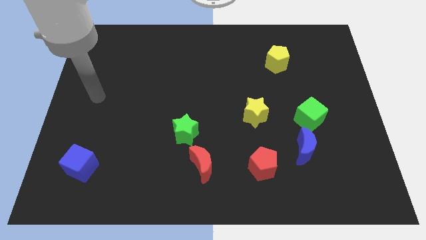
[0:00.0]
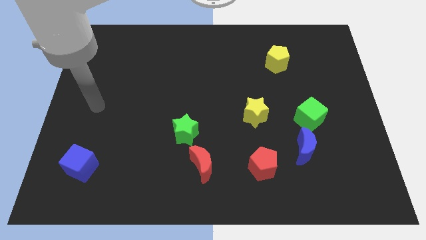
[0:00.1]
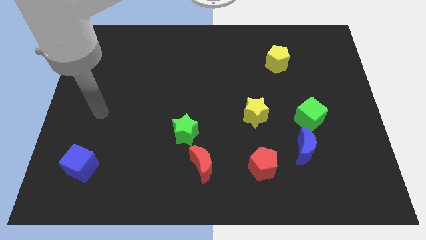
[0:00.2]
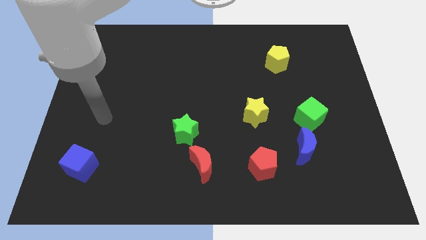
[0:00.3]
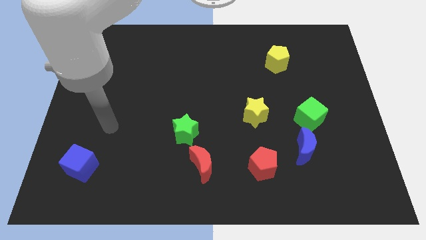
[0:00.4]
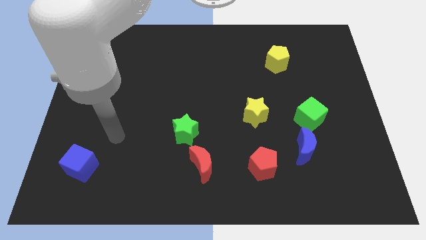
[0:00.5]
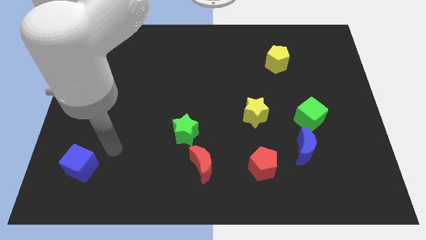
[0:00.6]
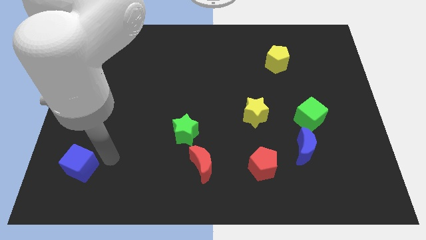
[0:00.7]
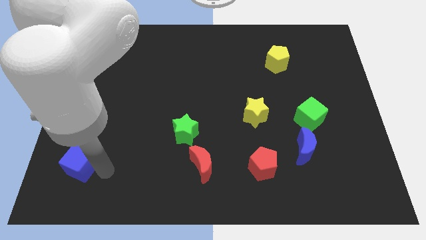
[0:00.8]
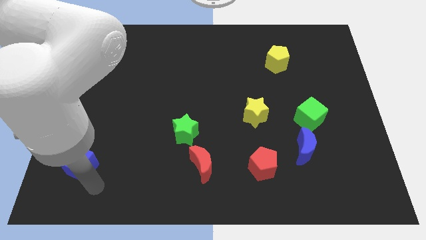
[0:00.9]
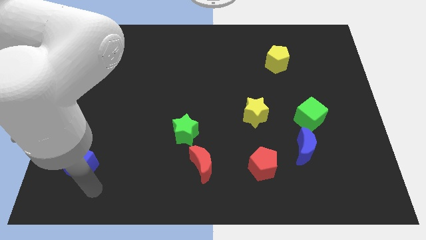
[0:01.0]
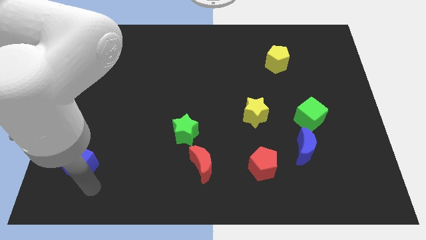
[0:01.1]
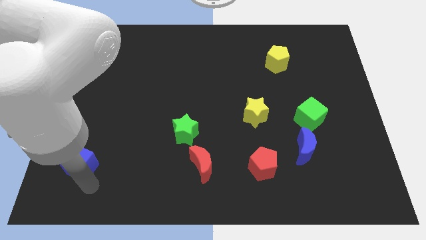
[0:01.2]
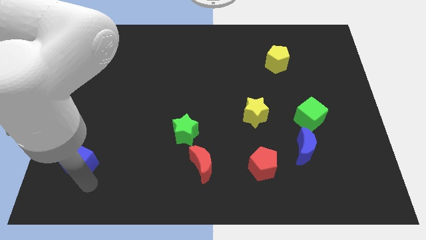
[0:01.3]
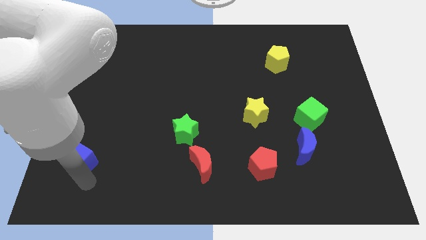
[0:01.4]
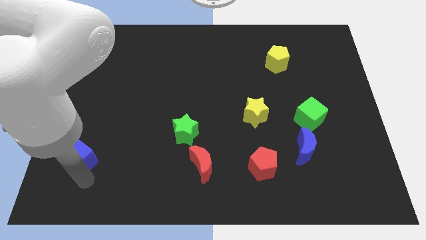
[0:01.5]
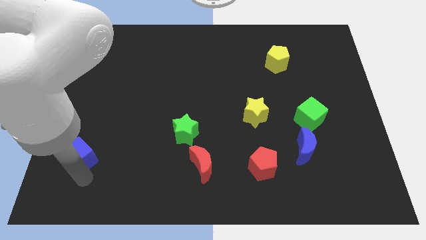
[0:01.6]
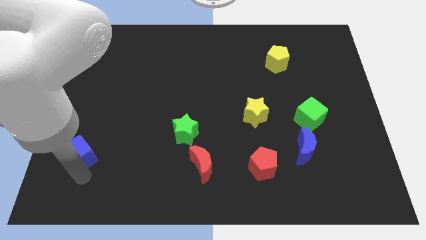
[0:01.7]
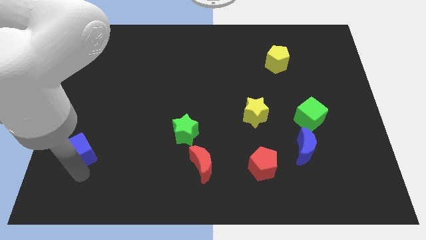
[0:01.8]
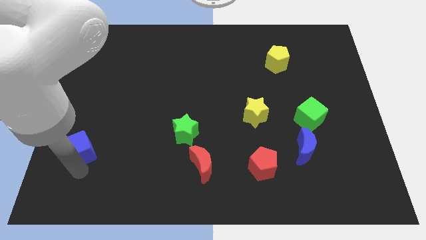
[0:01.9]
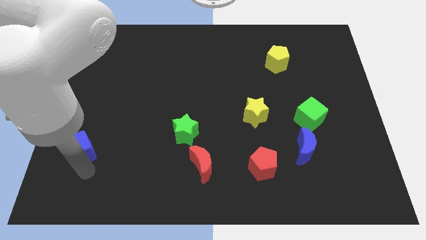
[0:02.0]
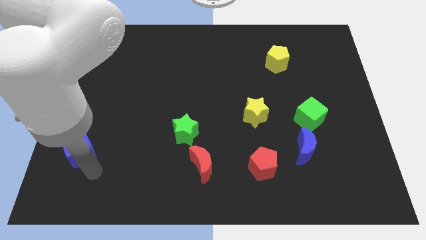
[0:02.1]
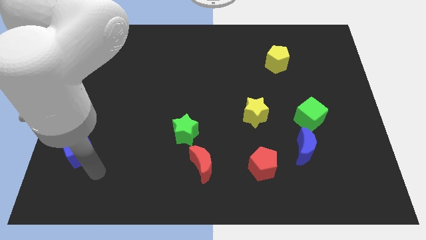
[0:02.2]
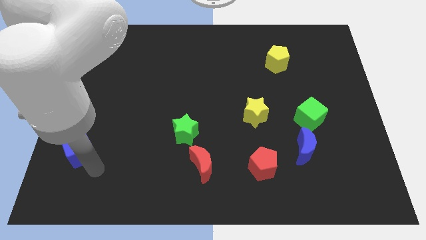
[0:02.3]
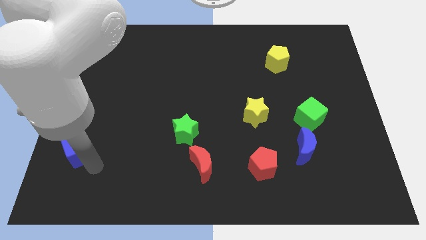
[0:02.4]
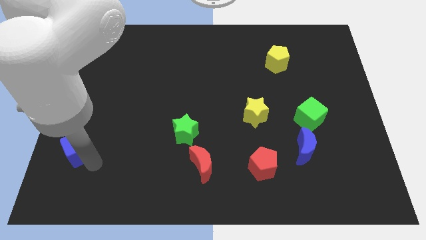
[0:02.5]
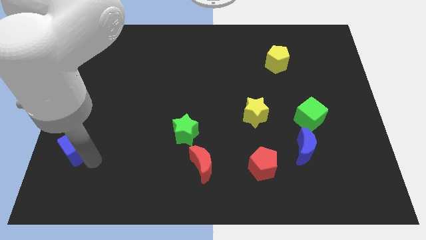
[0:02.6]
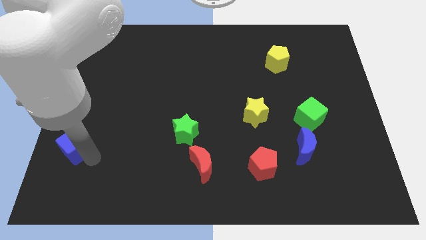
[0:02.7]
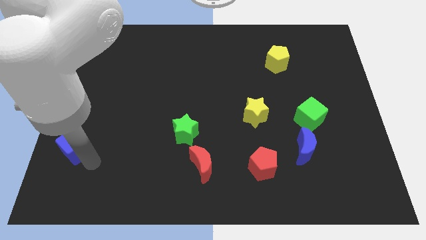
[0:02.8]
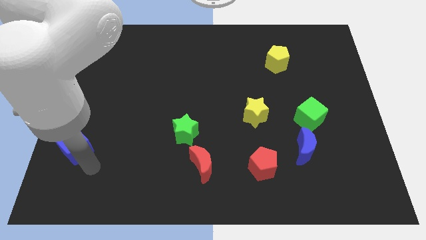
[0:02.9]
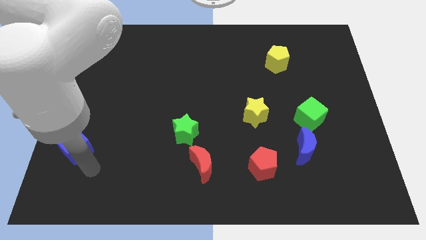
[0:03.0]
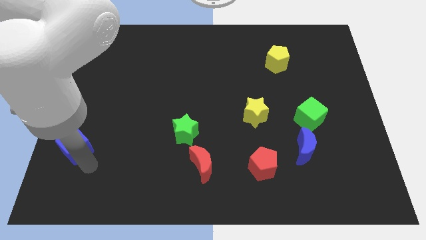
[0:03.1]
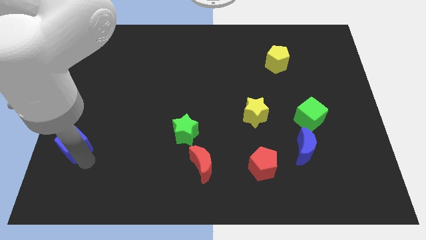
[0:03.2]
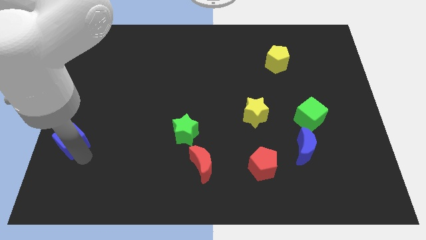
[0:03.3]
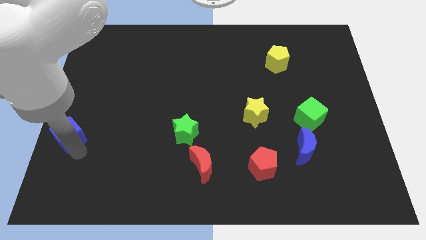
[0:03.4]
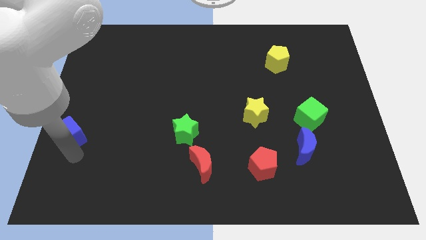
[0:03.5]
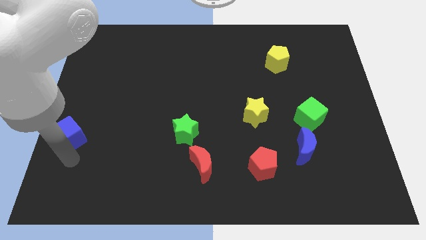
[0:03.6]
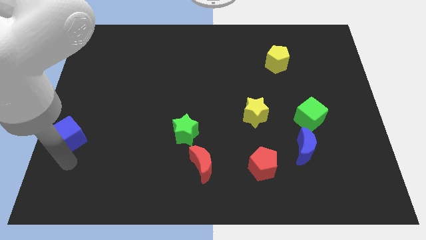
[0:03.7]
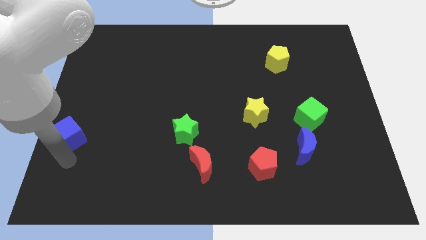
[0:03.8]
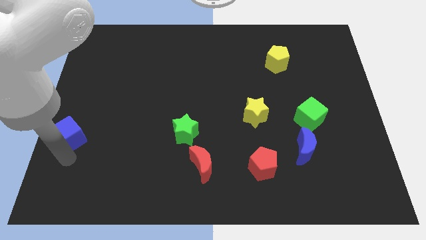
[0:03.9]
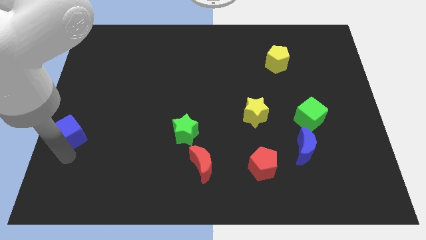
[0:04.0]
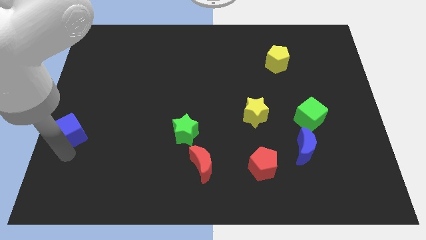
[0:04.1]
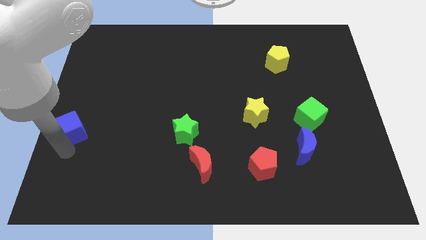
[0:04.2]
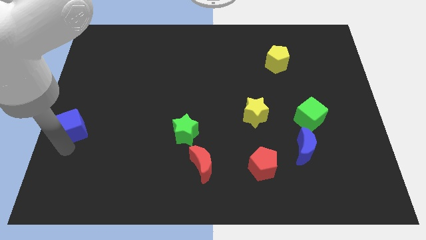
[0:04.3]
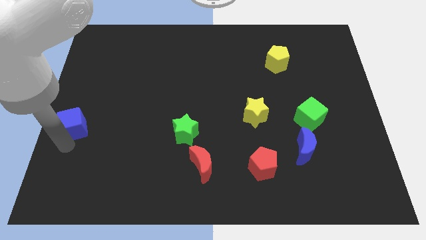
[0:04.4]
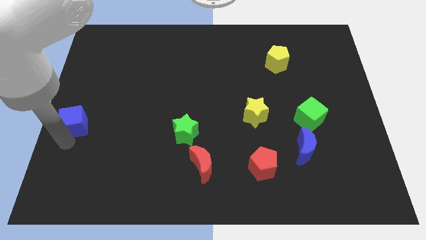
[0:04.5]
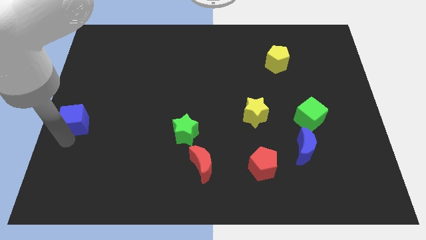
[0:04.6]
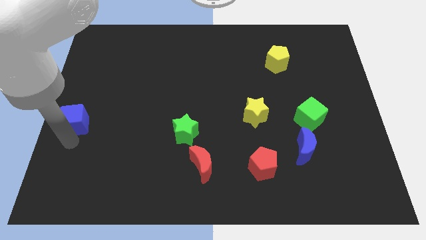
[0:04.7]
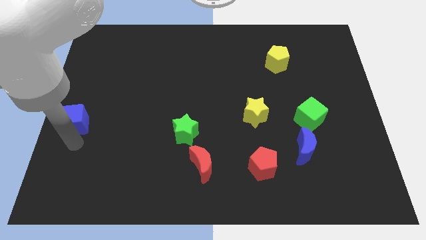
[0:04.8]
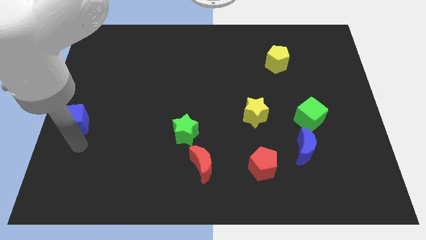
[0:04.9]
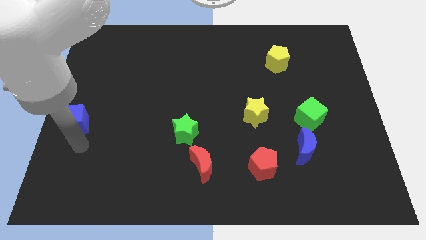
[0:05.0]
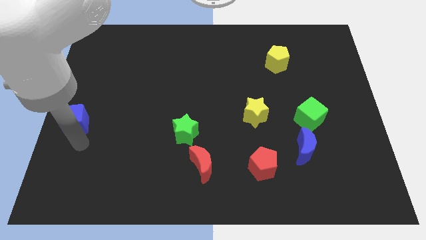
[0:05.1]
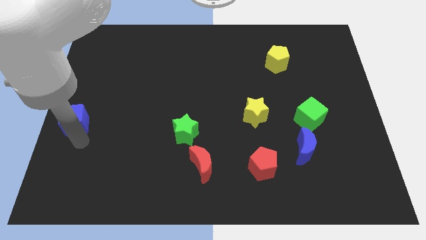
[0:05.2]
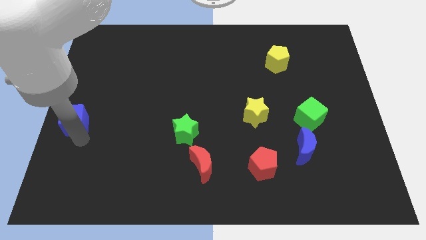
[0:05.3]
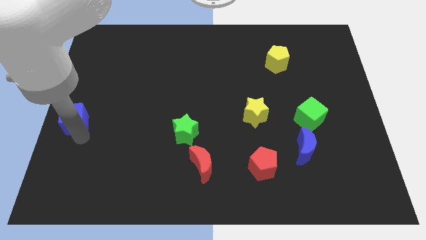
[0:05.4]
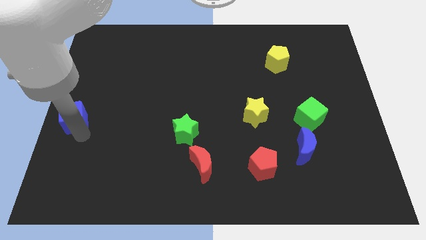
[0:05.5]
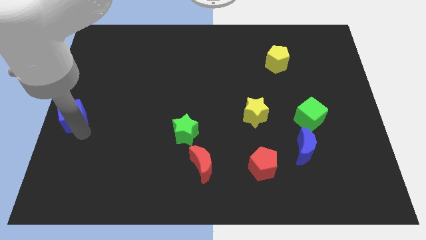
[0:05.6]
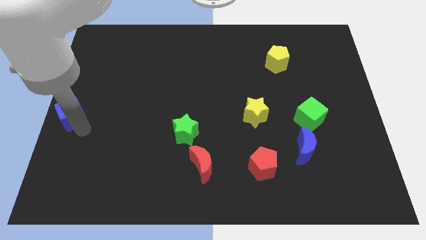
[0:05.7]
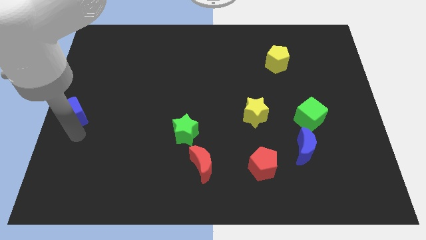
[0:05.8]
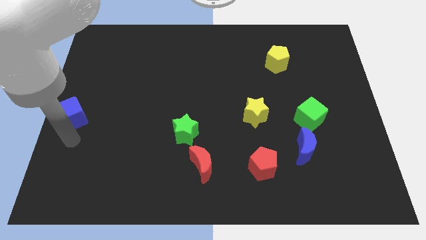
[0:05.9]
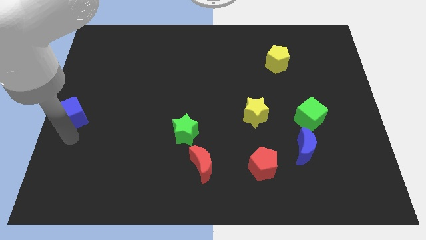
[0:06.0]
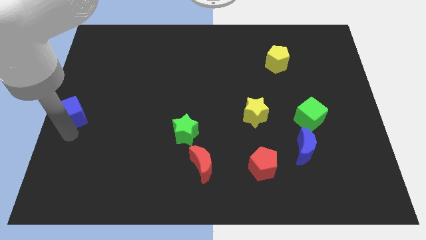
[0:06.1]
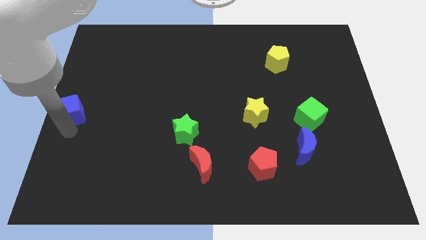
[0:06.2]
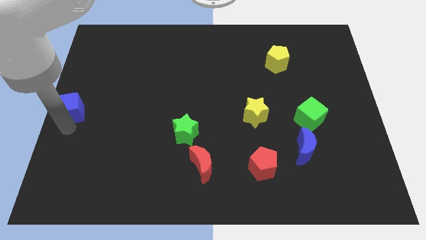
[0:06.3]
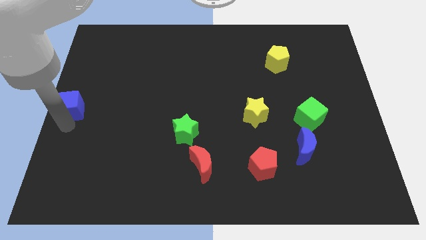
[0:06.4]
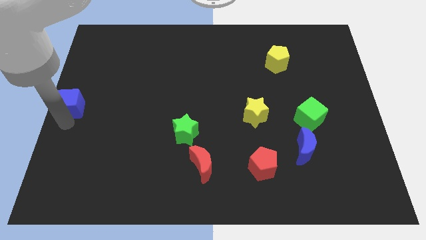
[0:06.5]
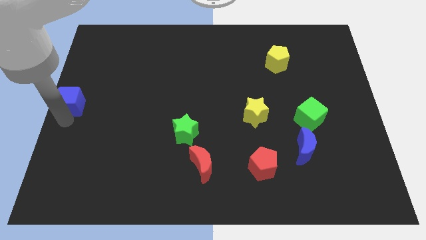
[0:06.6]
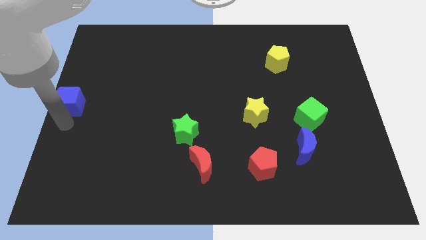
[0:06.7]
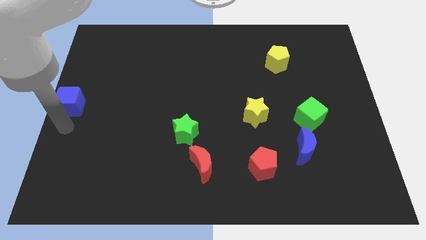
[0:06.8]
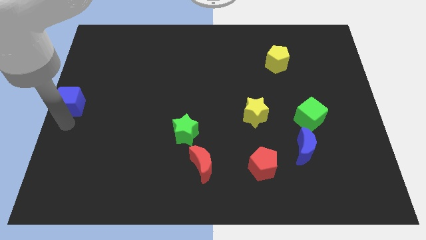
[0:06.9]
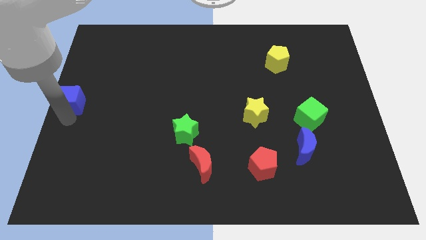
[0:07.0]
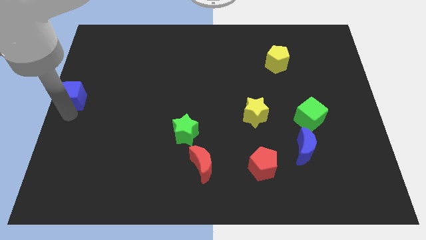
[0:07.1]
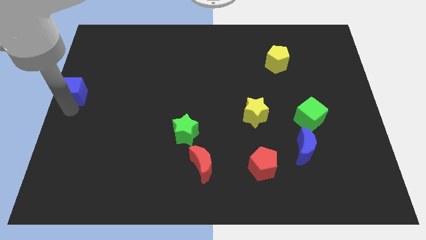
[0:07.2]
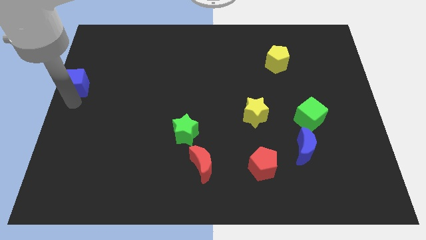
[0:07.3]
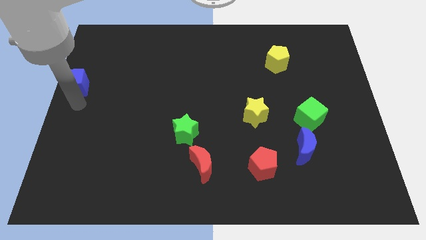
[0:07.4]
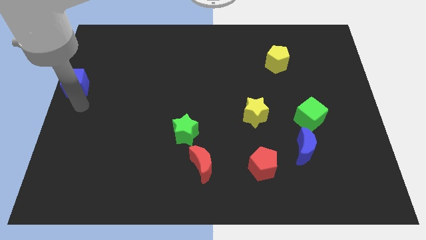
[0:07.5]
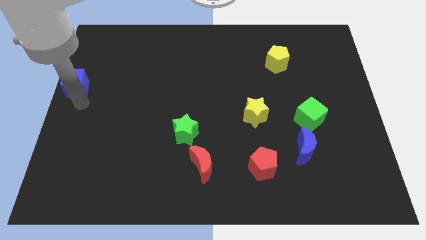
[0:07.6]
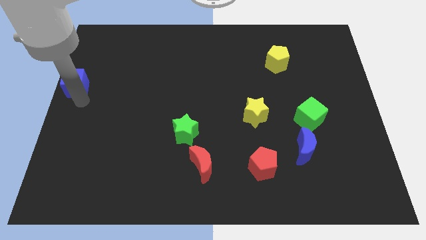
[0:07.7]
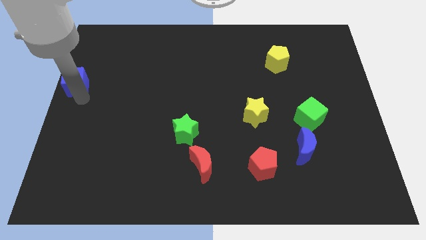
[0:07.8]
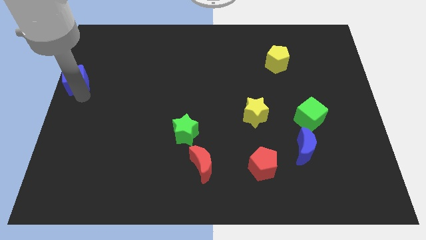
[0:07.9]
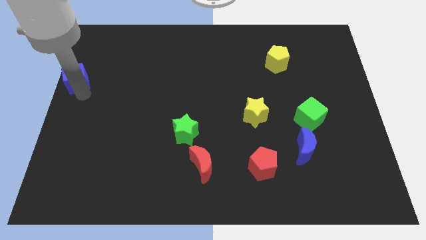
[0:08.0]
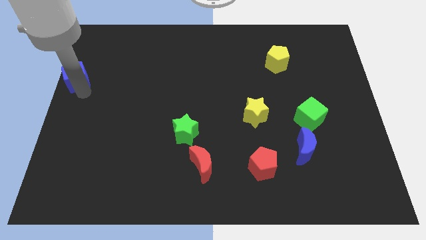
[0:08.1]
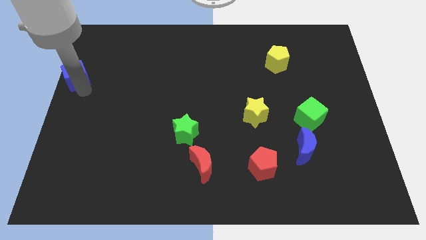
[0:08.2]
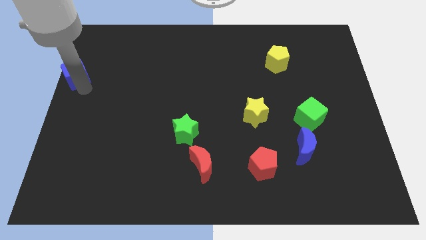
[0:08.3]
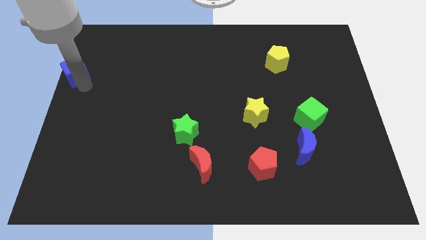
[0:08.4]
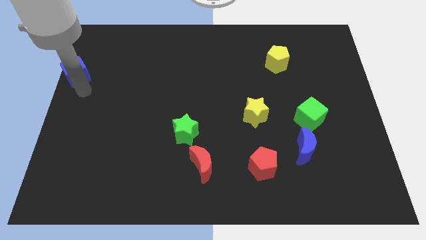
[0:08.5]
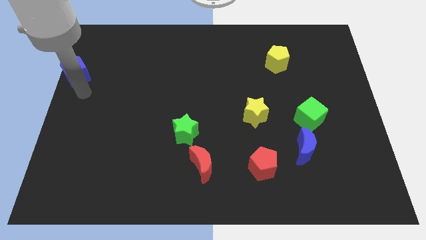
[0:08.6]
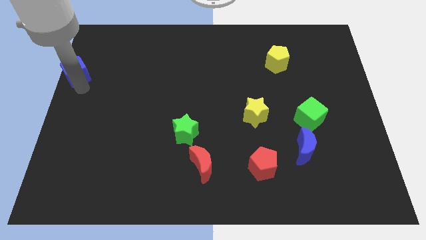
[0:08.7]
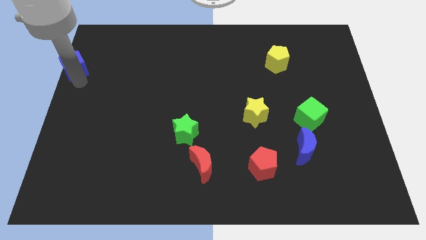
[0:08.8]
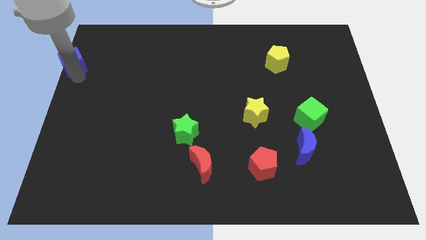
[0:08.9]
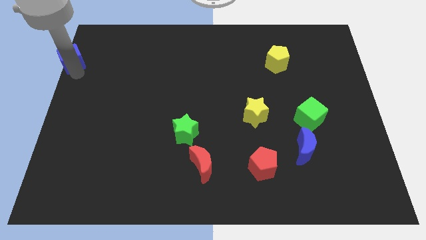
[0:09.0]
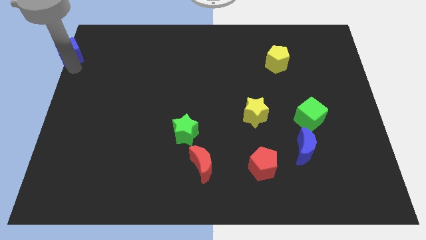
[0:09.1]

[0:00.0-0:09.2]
slide the blue cube to the upper left corner
